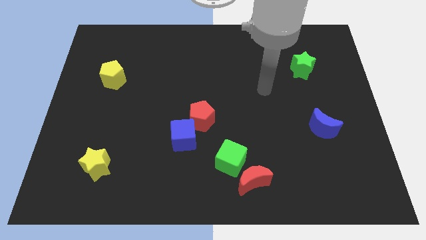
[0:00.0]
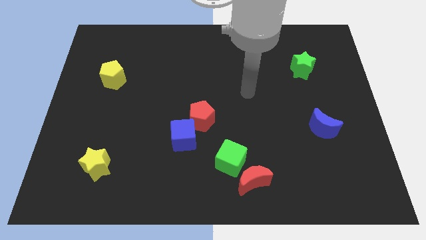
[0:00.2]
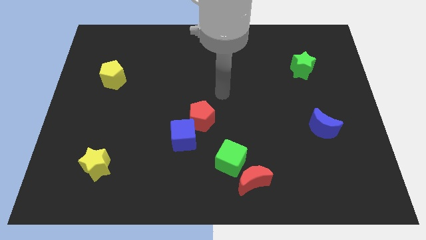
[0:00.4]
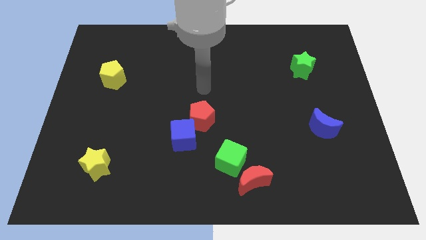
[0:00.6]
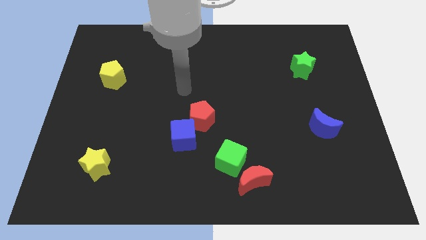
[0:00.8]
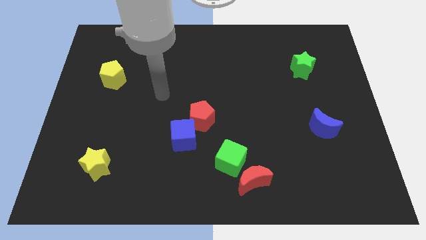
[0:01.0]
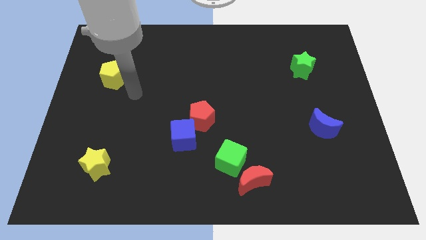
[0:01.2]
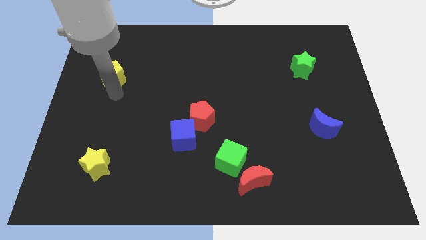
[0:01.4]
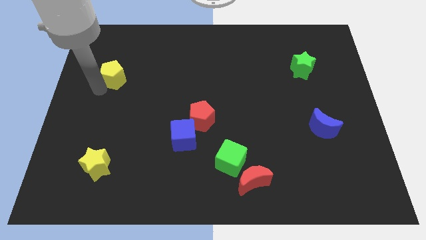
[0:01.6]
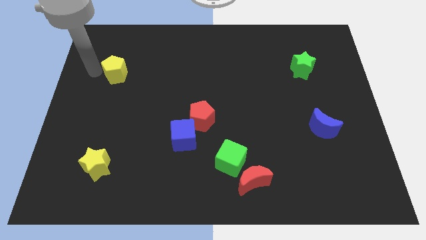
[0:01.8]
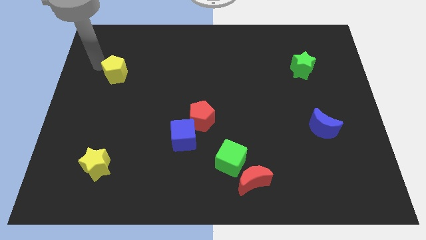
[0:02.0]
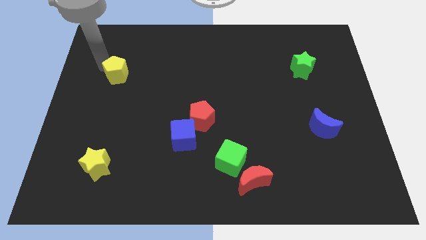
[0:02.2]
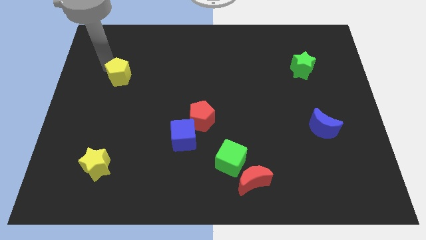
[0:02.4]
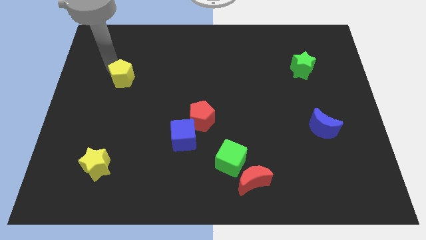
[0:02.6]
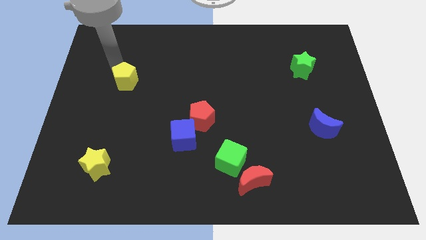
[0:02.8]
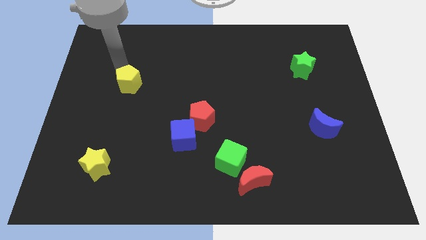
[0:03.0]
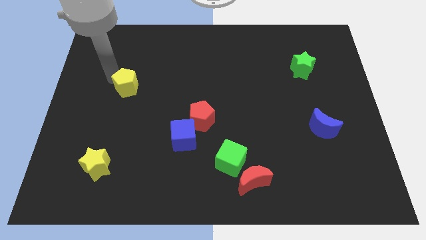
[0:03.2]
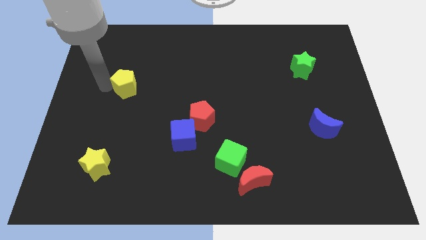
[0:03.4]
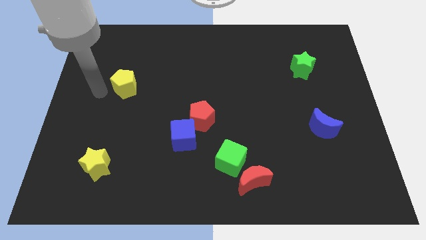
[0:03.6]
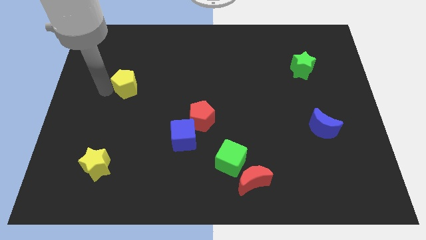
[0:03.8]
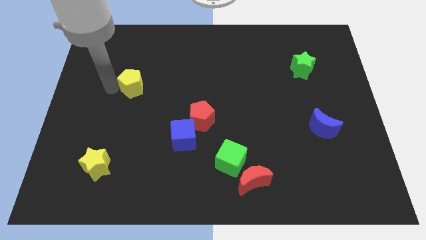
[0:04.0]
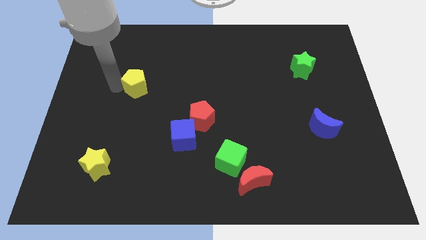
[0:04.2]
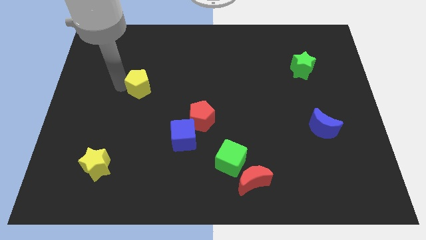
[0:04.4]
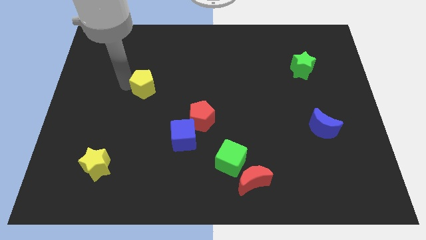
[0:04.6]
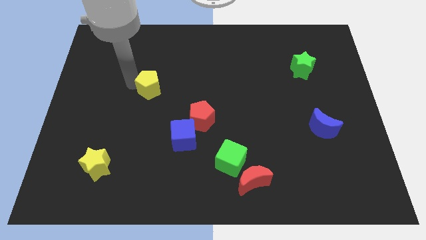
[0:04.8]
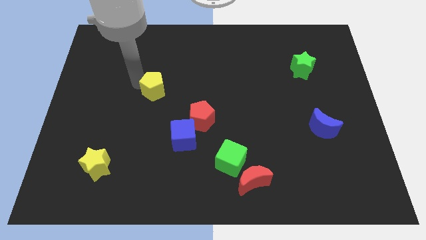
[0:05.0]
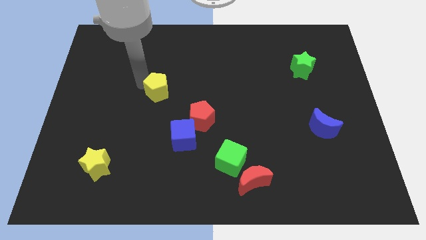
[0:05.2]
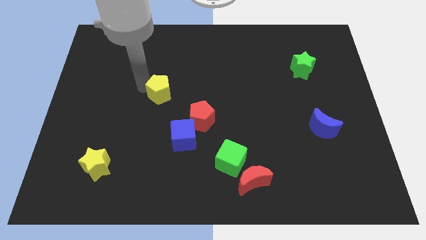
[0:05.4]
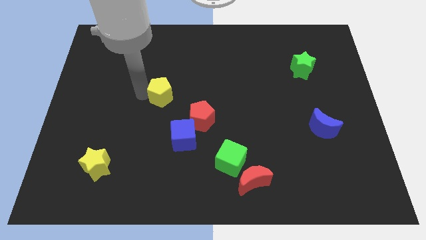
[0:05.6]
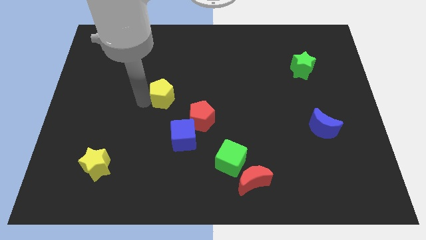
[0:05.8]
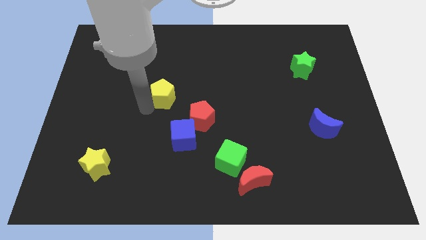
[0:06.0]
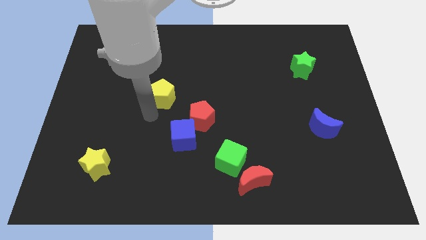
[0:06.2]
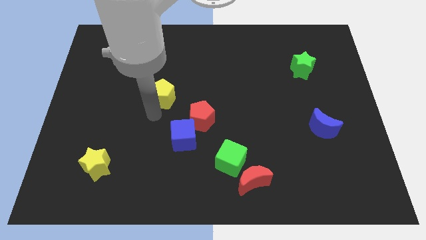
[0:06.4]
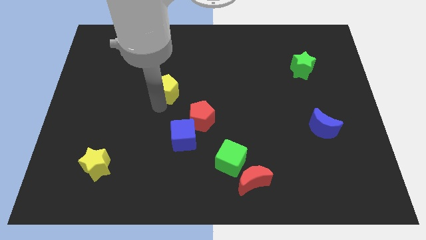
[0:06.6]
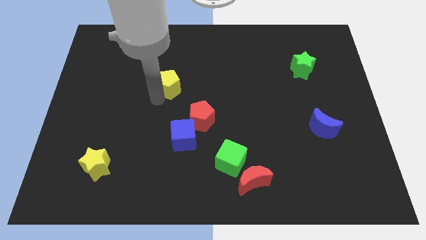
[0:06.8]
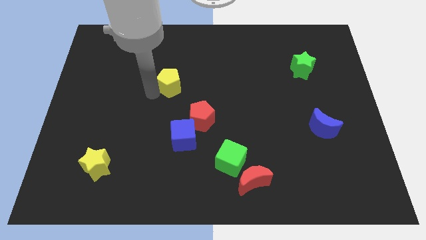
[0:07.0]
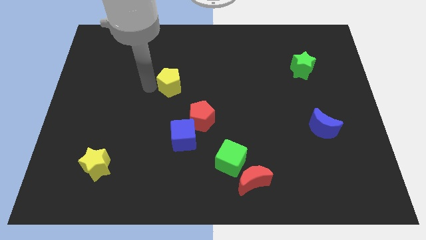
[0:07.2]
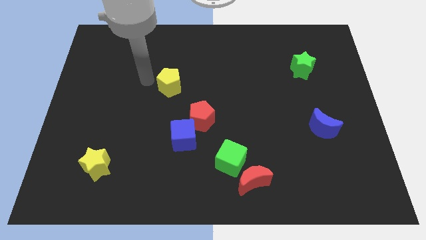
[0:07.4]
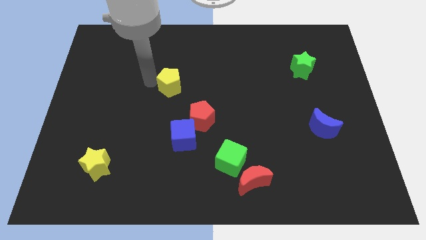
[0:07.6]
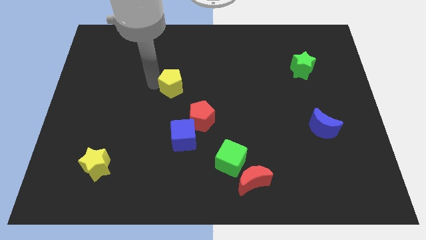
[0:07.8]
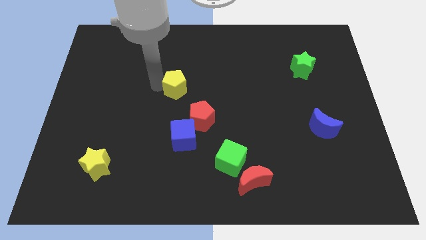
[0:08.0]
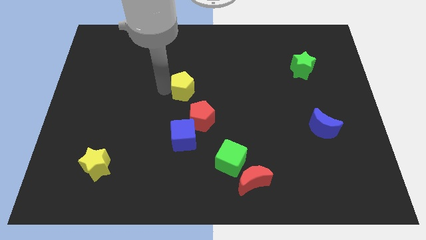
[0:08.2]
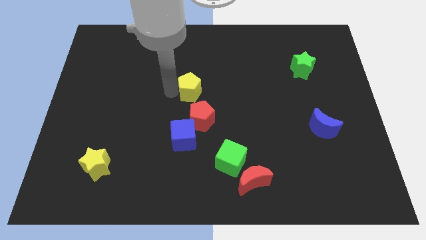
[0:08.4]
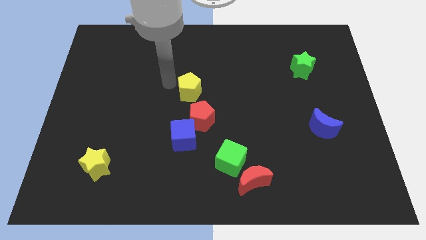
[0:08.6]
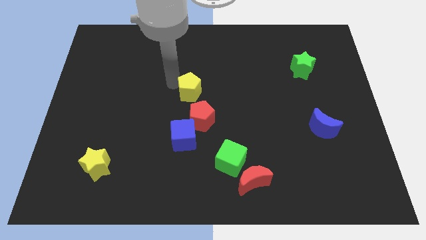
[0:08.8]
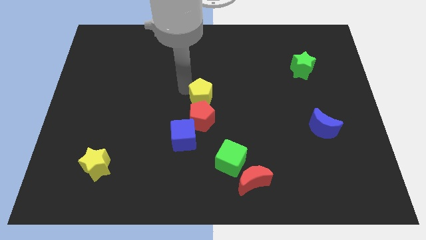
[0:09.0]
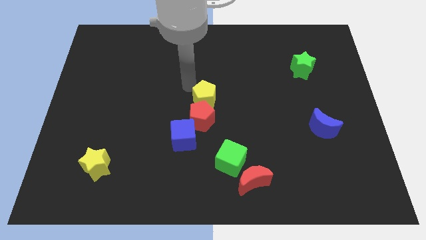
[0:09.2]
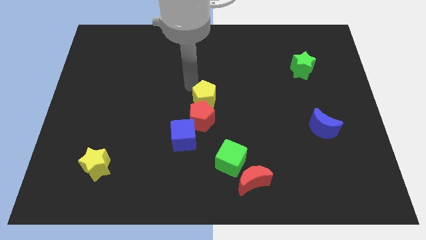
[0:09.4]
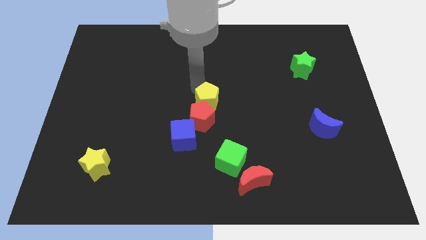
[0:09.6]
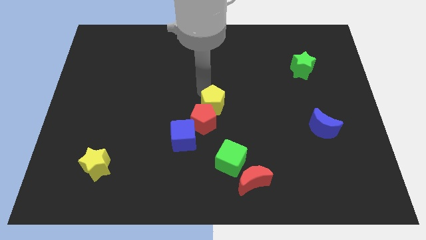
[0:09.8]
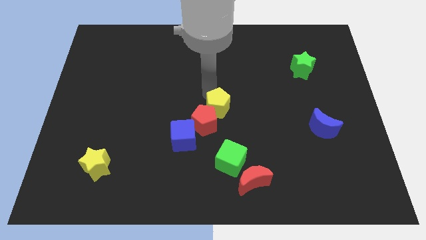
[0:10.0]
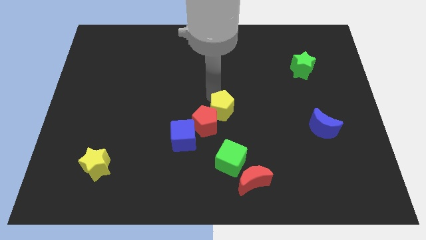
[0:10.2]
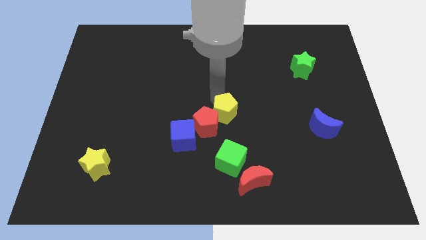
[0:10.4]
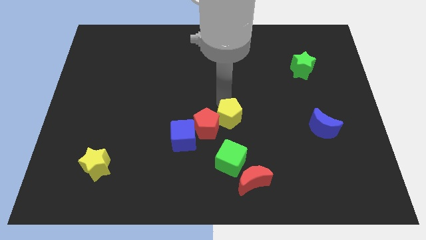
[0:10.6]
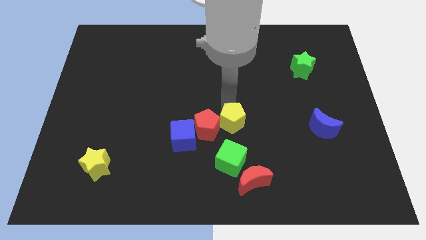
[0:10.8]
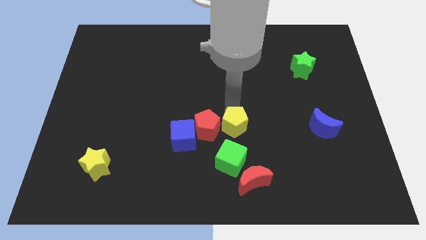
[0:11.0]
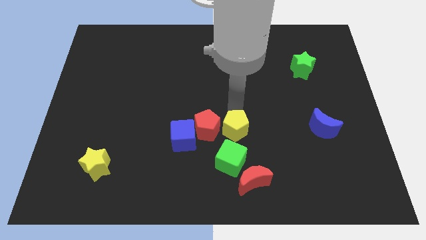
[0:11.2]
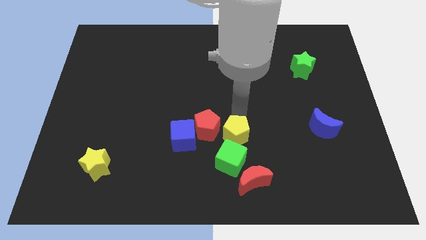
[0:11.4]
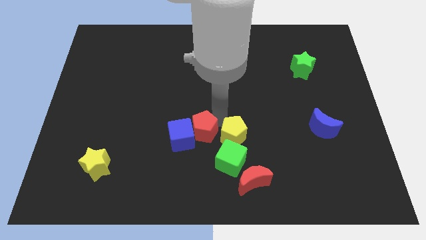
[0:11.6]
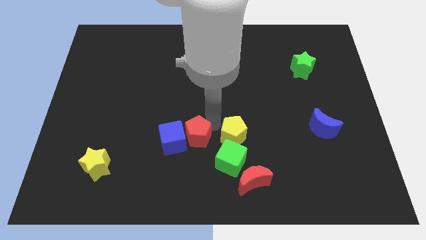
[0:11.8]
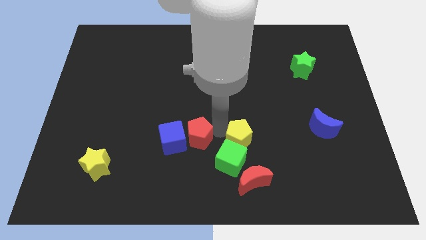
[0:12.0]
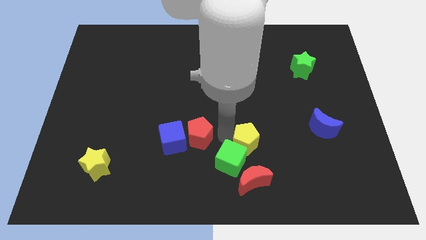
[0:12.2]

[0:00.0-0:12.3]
move the yellow pentagon just right of the green cube
